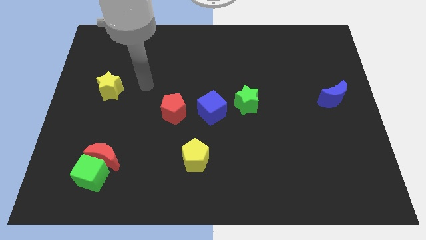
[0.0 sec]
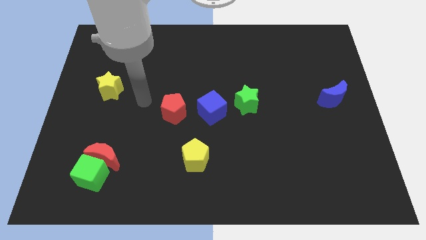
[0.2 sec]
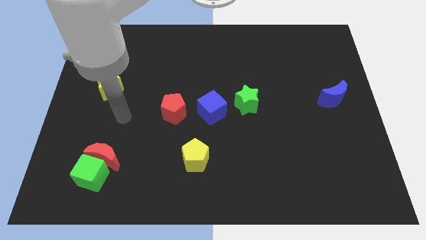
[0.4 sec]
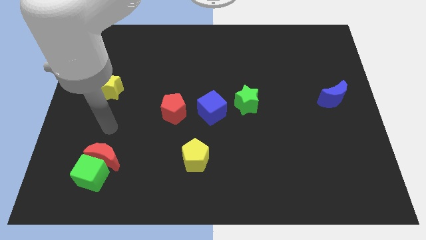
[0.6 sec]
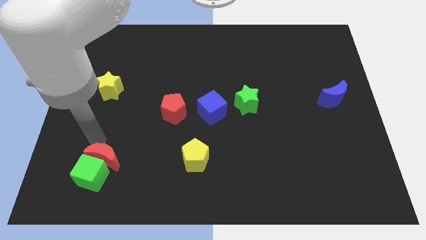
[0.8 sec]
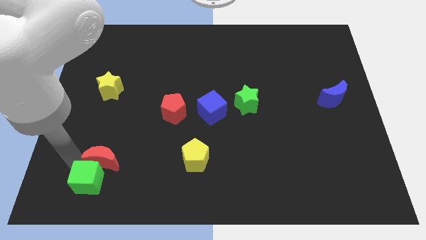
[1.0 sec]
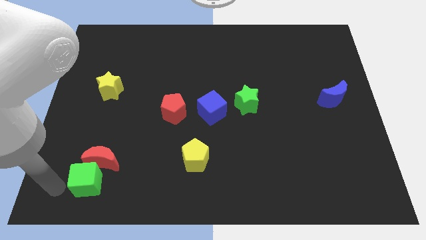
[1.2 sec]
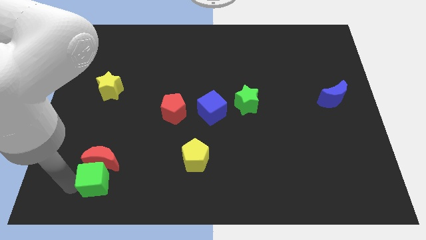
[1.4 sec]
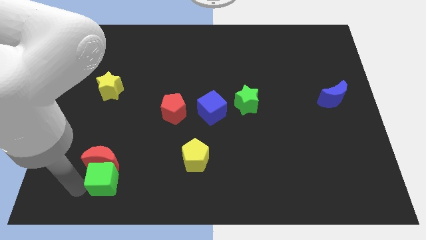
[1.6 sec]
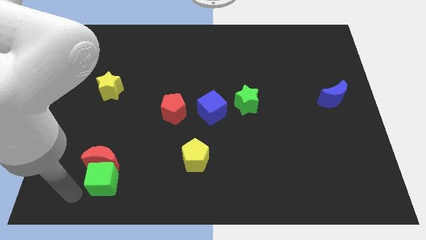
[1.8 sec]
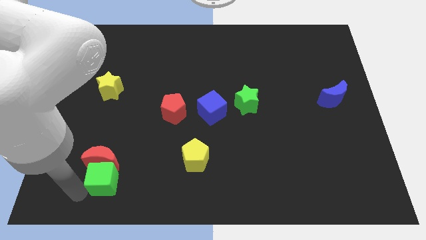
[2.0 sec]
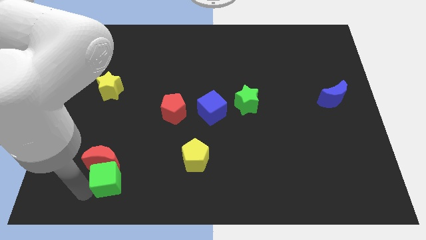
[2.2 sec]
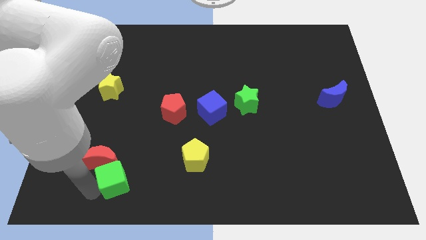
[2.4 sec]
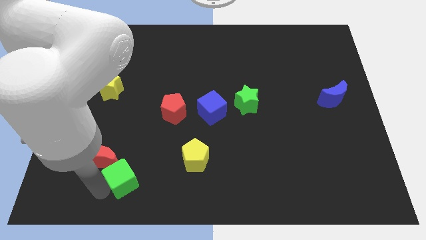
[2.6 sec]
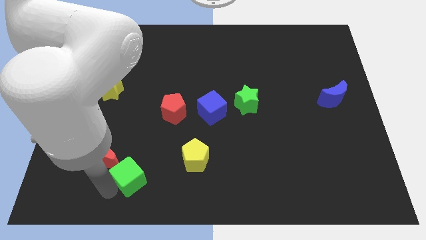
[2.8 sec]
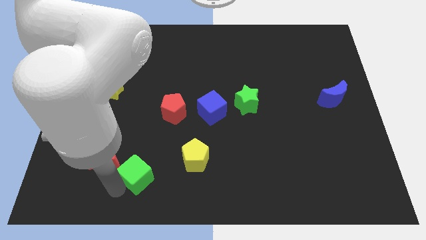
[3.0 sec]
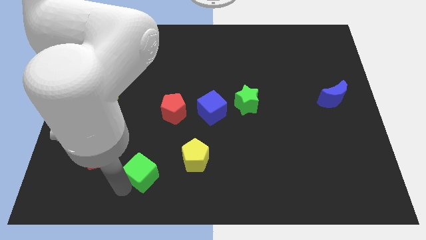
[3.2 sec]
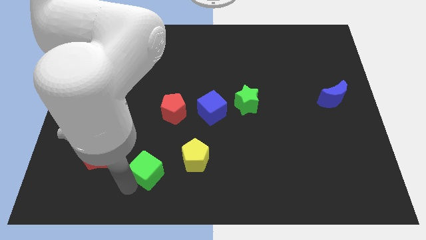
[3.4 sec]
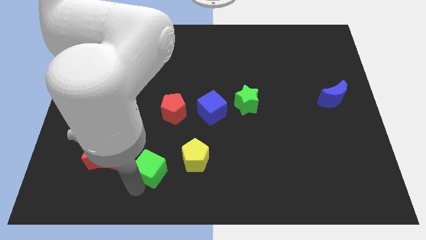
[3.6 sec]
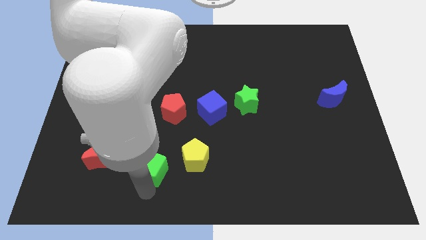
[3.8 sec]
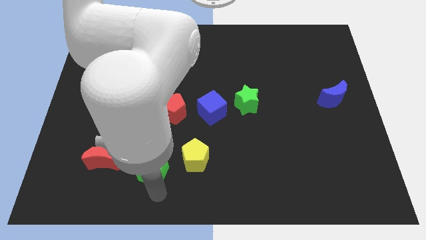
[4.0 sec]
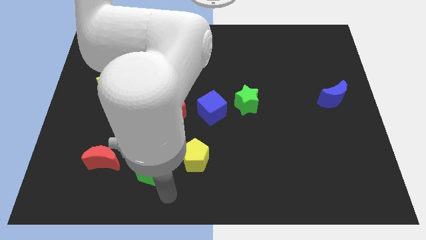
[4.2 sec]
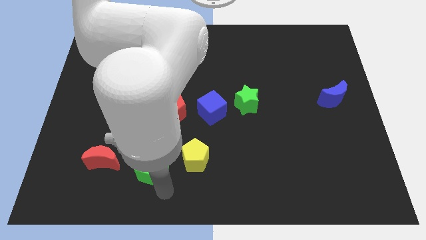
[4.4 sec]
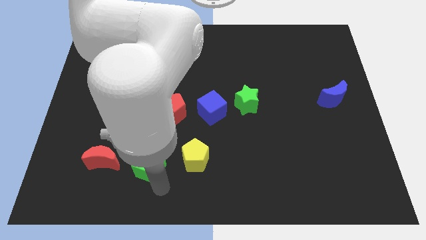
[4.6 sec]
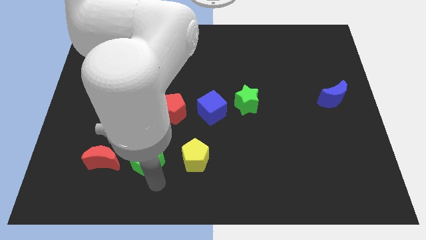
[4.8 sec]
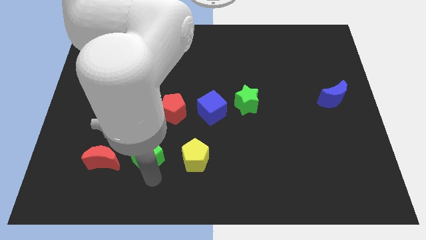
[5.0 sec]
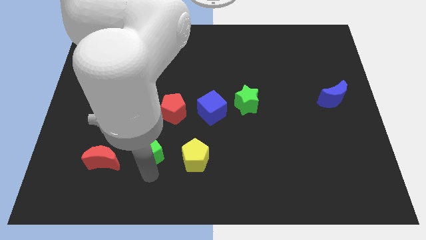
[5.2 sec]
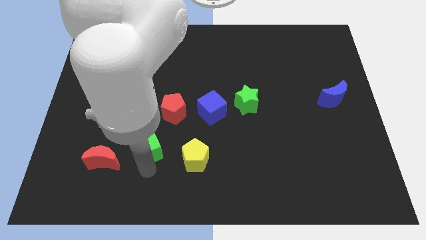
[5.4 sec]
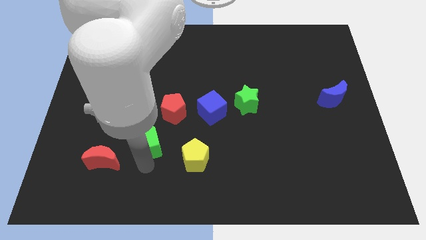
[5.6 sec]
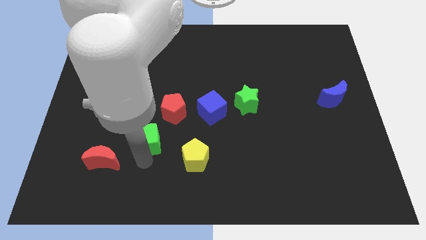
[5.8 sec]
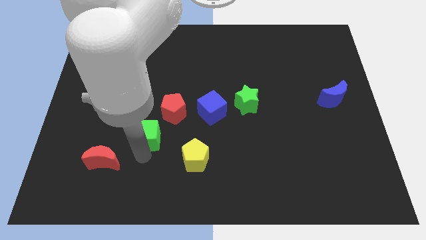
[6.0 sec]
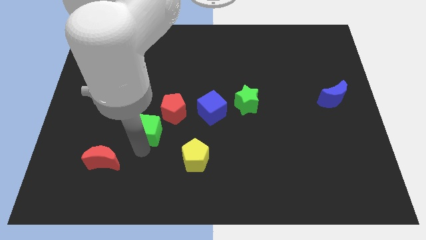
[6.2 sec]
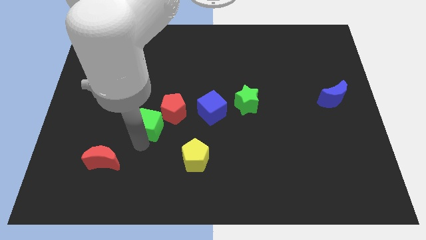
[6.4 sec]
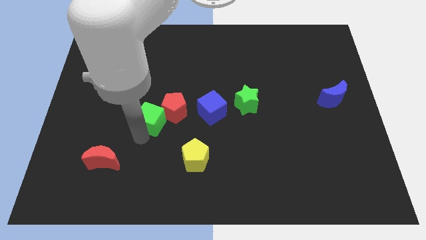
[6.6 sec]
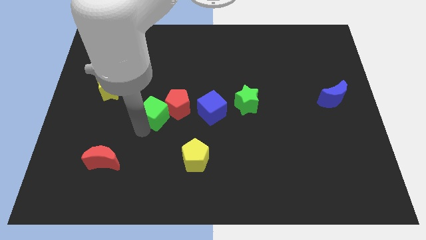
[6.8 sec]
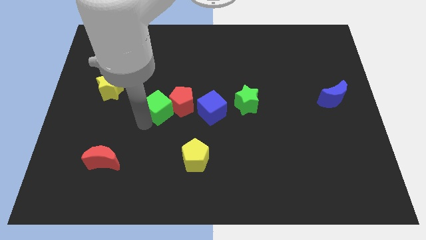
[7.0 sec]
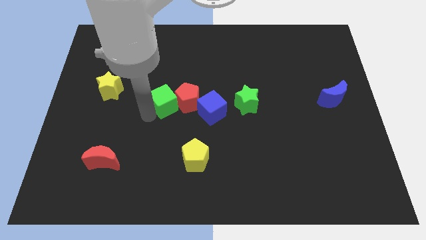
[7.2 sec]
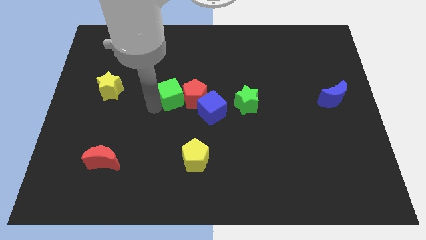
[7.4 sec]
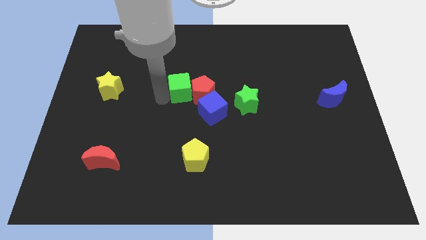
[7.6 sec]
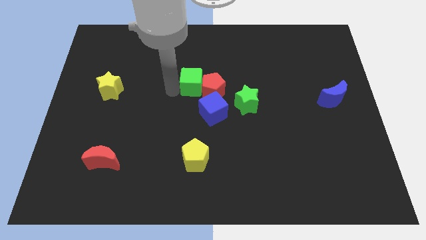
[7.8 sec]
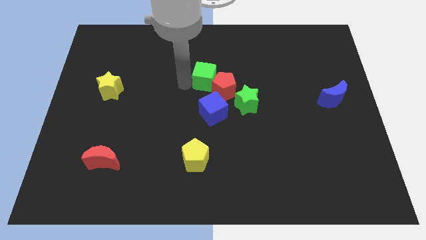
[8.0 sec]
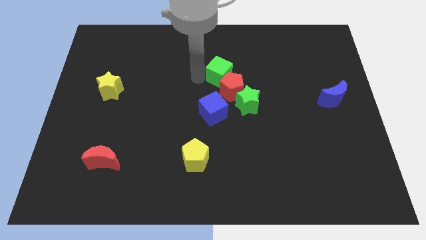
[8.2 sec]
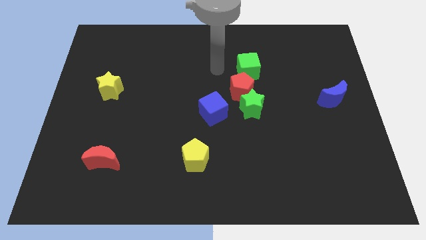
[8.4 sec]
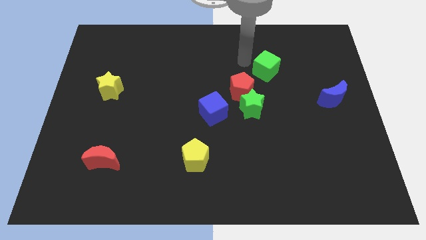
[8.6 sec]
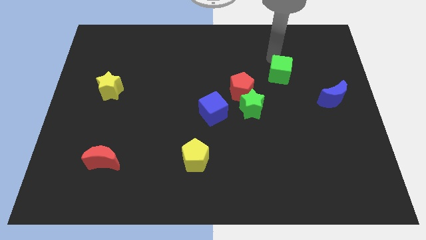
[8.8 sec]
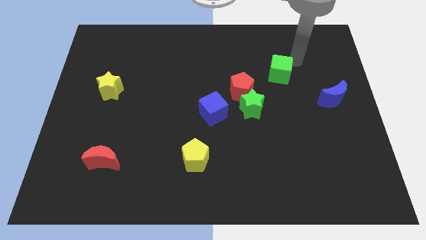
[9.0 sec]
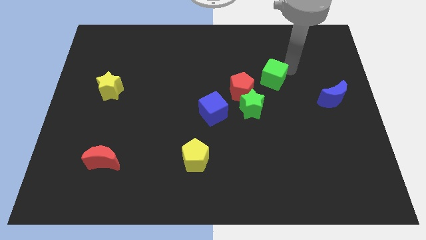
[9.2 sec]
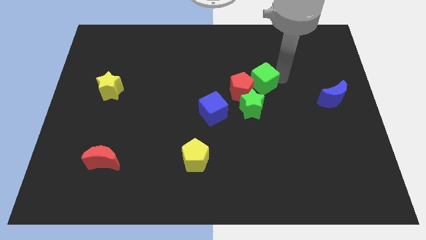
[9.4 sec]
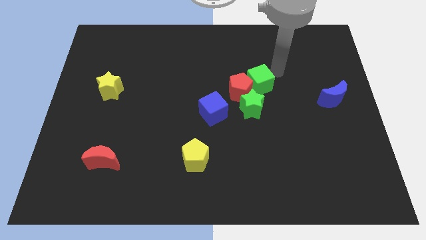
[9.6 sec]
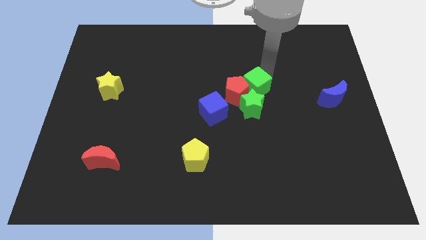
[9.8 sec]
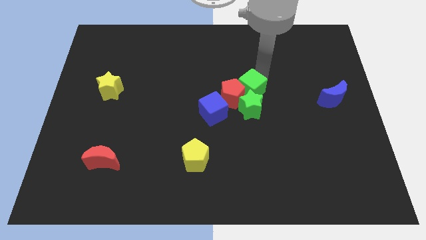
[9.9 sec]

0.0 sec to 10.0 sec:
slide the green cube to the top right of the blue cube

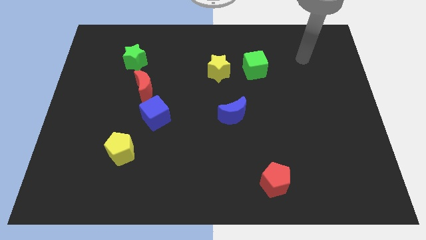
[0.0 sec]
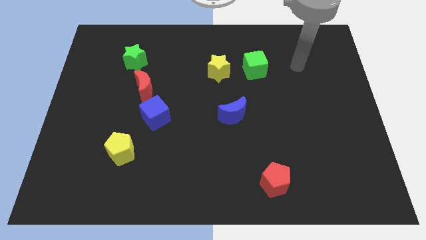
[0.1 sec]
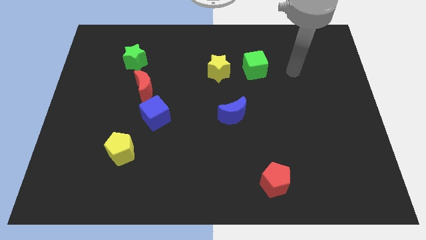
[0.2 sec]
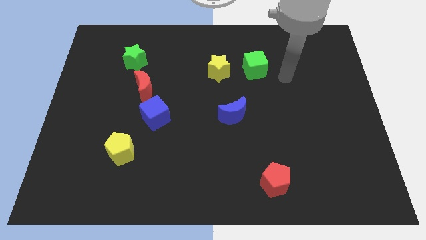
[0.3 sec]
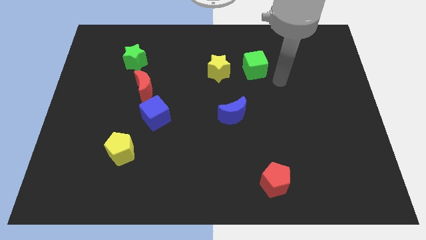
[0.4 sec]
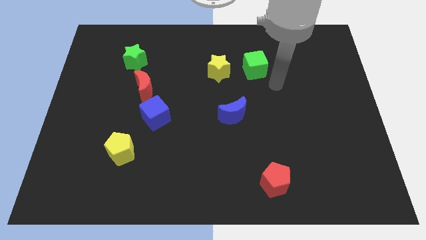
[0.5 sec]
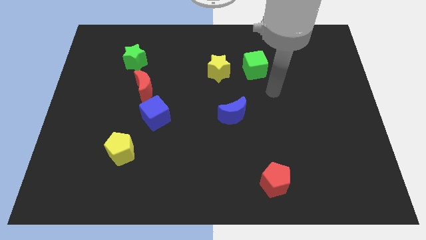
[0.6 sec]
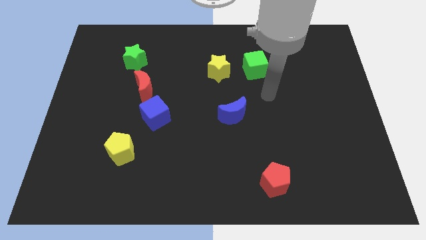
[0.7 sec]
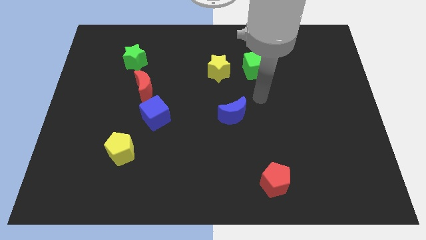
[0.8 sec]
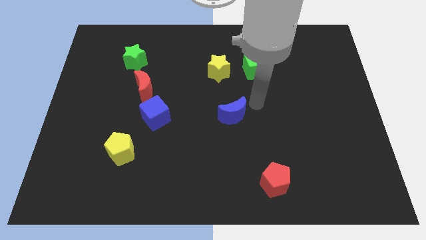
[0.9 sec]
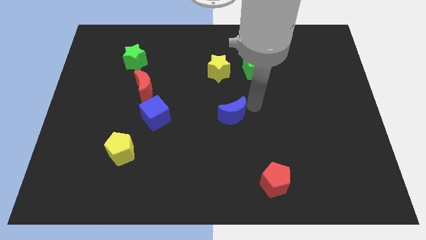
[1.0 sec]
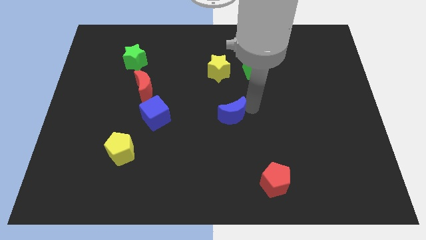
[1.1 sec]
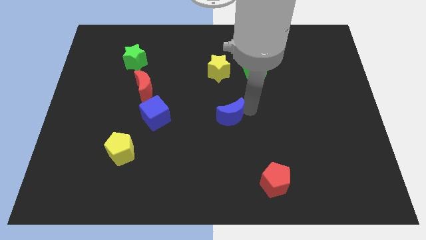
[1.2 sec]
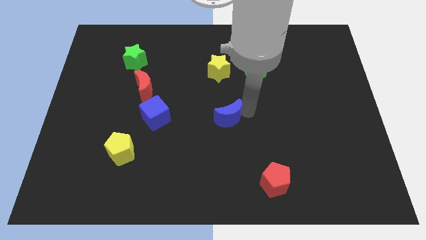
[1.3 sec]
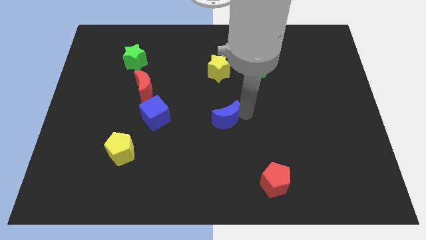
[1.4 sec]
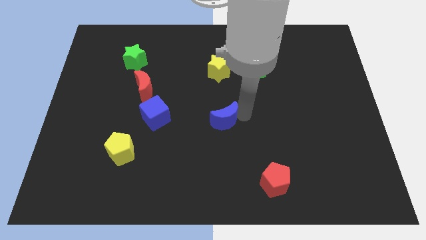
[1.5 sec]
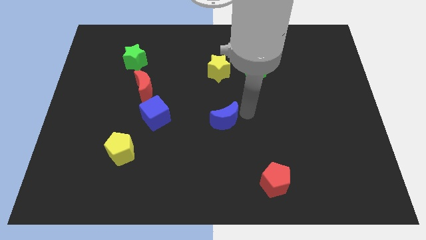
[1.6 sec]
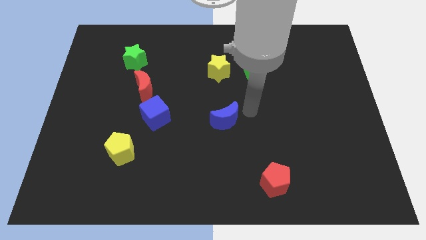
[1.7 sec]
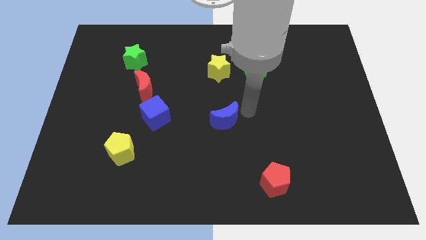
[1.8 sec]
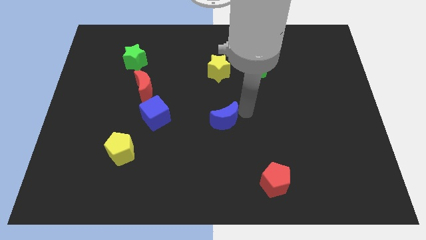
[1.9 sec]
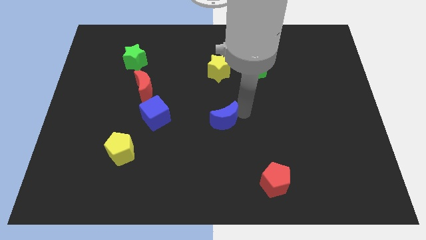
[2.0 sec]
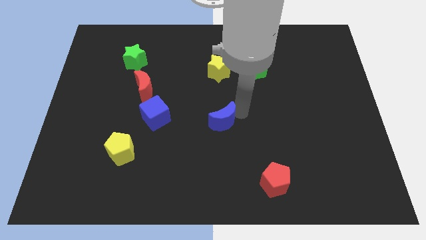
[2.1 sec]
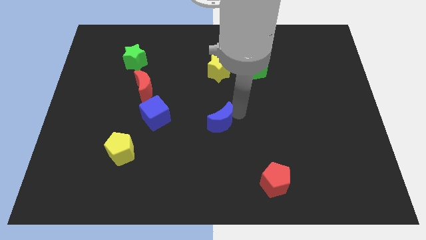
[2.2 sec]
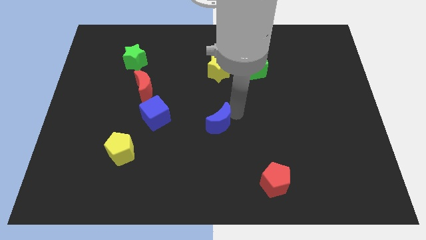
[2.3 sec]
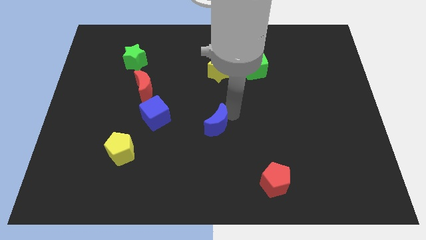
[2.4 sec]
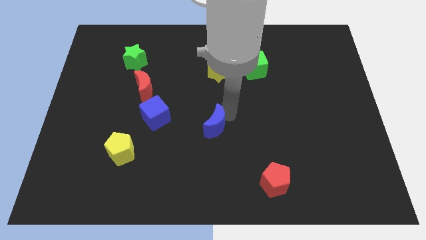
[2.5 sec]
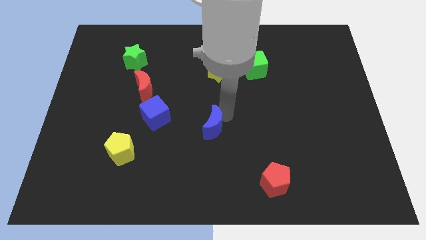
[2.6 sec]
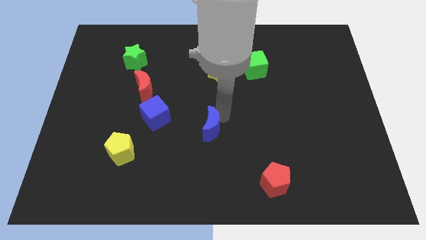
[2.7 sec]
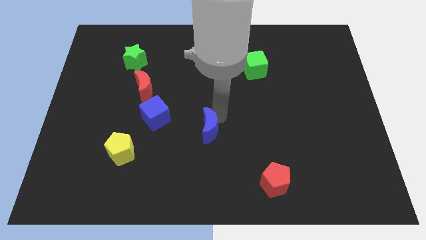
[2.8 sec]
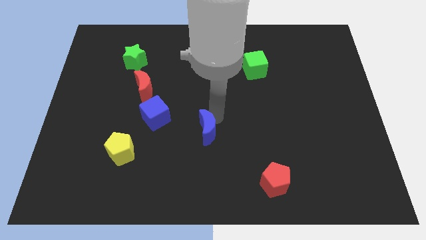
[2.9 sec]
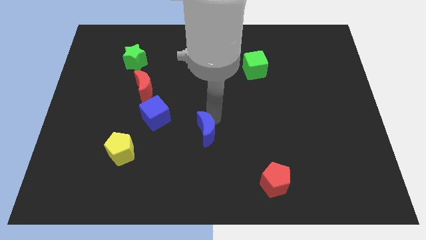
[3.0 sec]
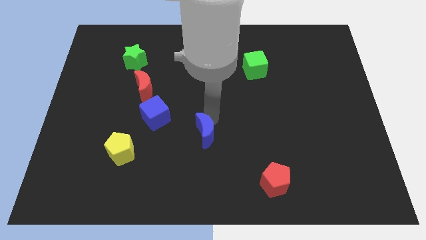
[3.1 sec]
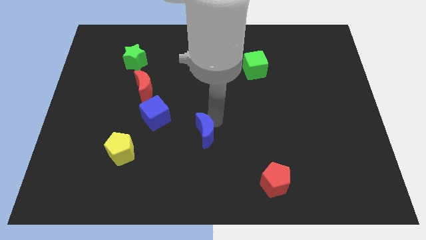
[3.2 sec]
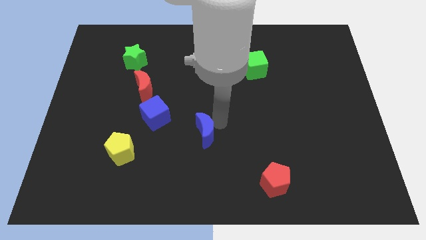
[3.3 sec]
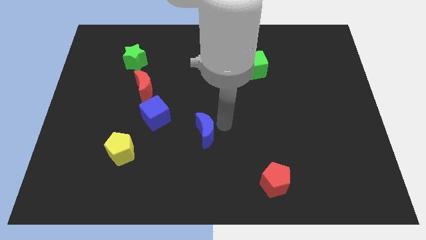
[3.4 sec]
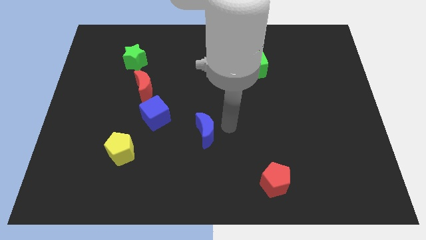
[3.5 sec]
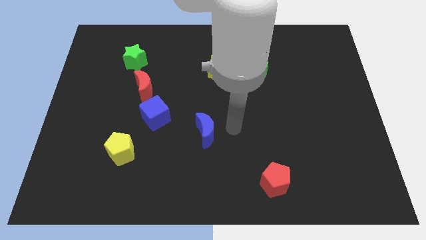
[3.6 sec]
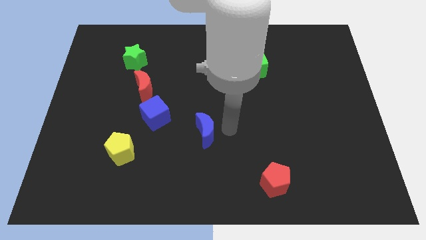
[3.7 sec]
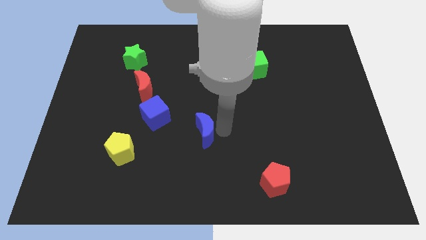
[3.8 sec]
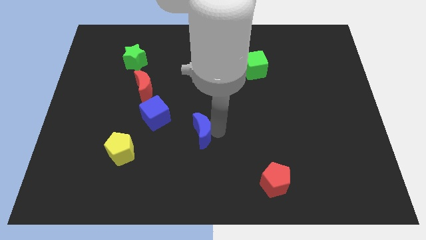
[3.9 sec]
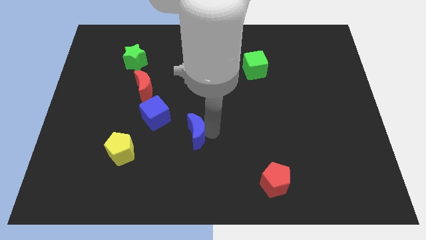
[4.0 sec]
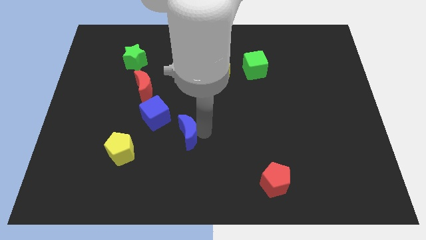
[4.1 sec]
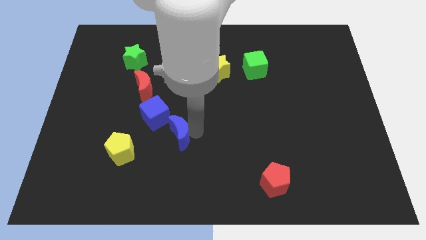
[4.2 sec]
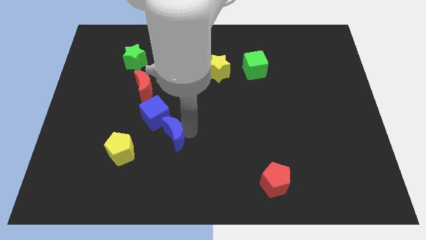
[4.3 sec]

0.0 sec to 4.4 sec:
push the blue moon to the bottom side of the blue cube
